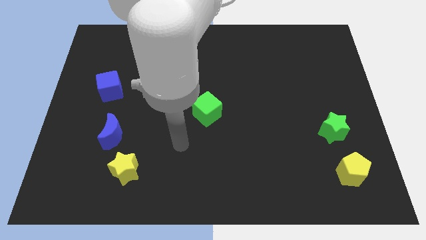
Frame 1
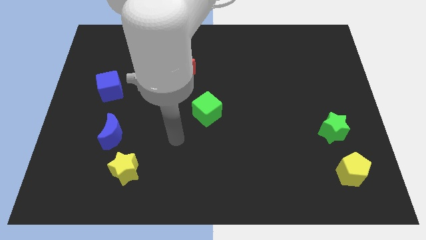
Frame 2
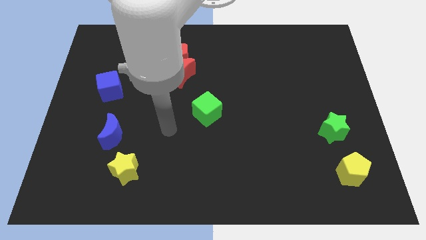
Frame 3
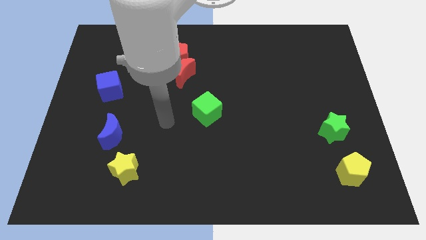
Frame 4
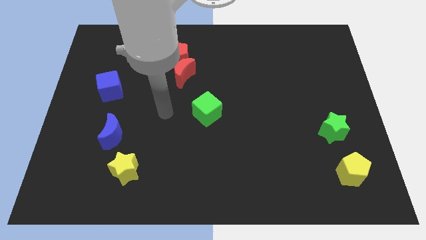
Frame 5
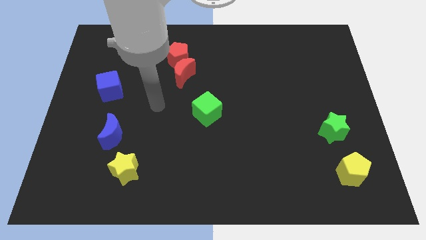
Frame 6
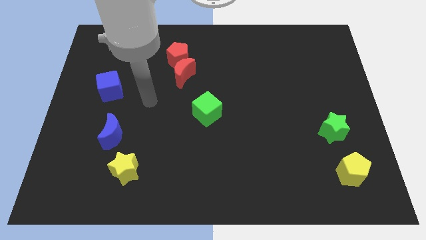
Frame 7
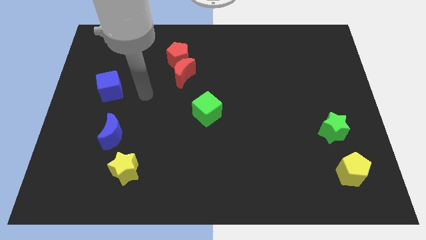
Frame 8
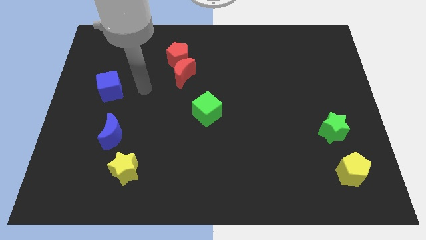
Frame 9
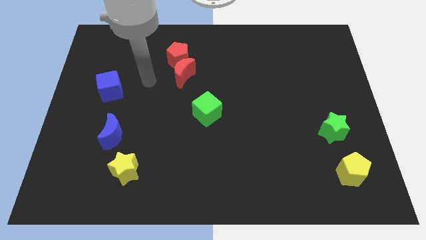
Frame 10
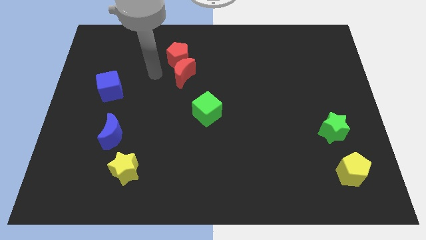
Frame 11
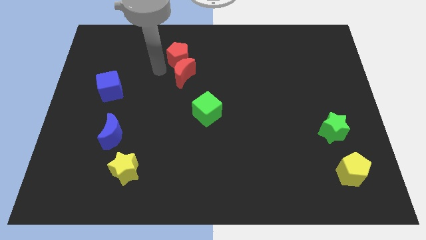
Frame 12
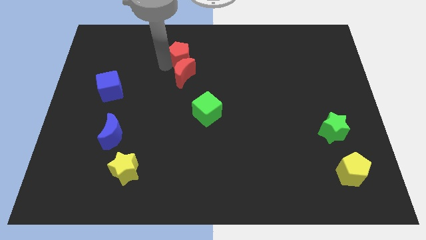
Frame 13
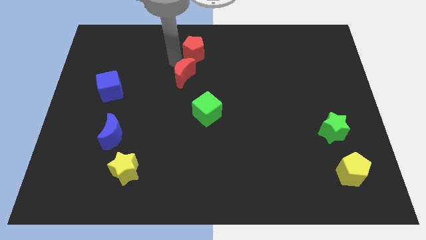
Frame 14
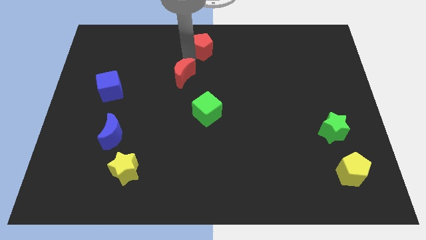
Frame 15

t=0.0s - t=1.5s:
move the red moon away from the red pentagon

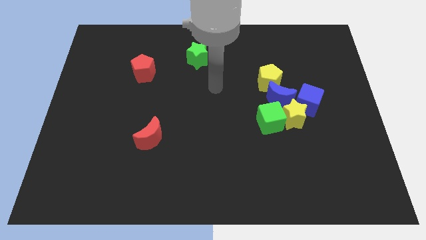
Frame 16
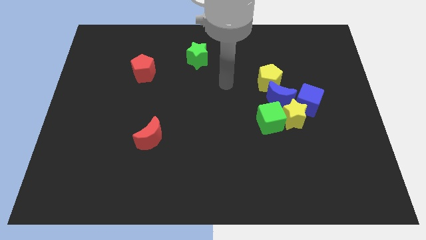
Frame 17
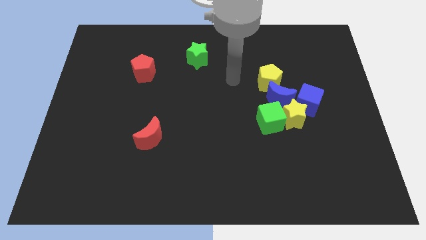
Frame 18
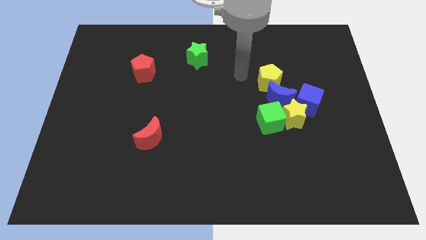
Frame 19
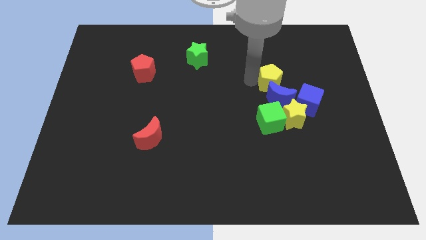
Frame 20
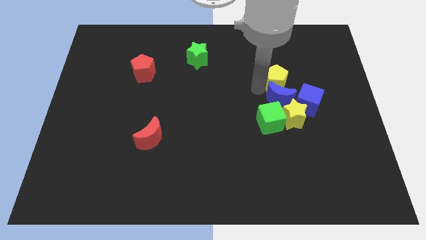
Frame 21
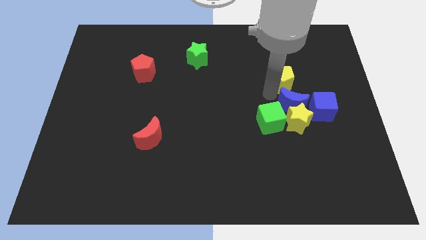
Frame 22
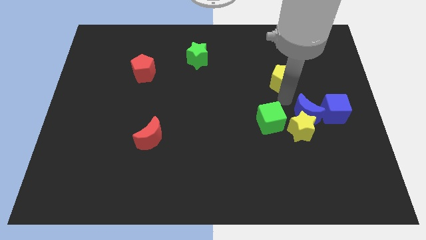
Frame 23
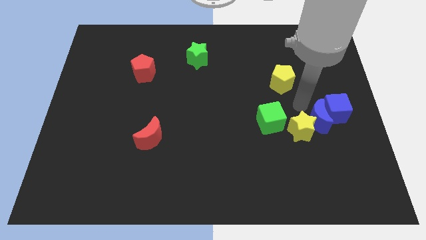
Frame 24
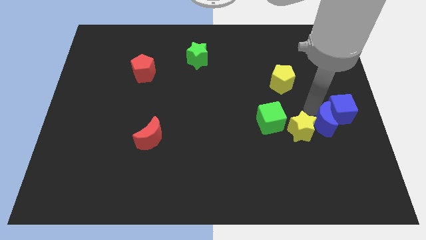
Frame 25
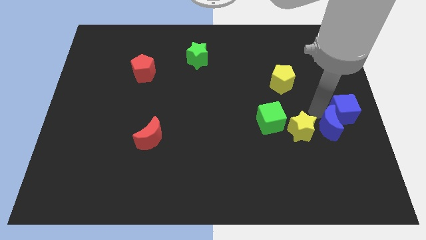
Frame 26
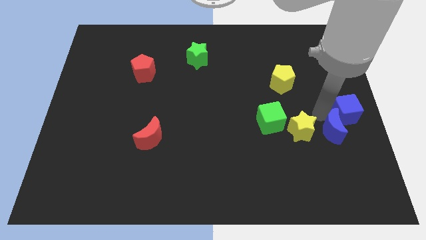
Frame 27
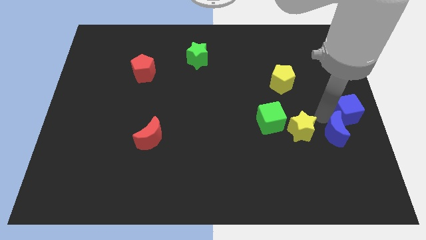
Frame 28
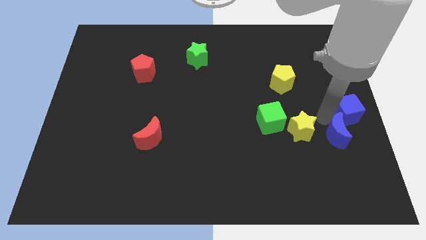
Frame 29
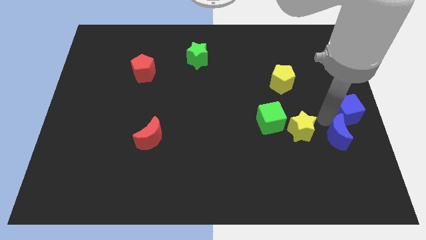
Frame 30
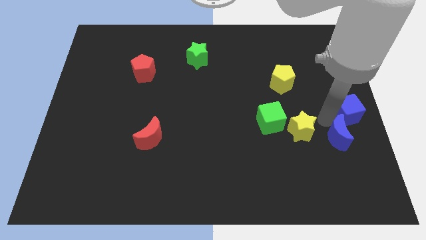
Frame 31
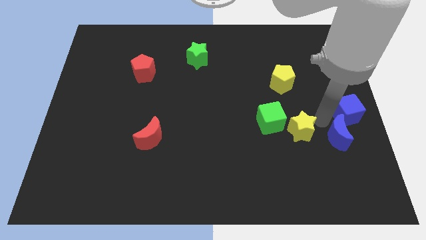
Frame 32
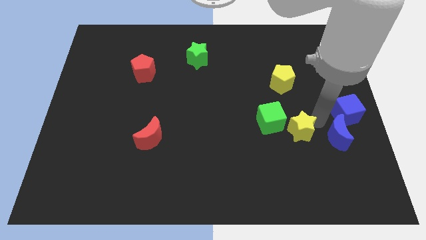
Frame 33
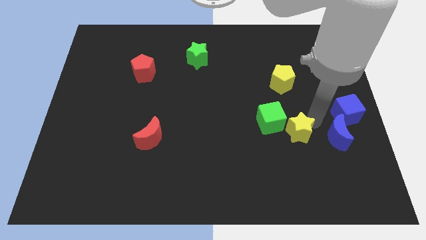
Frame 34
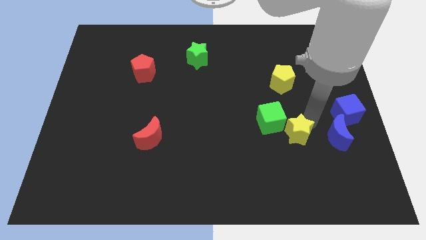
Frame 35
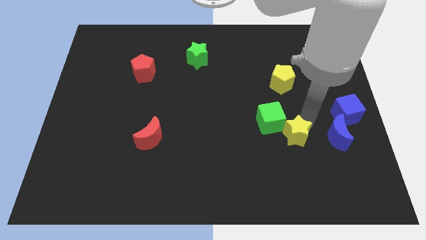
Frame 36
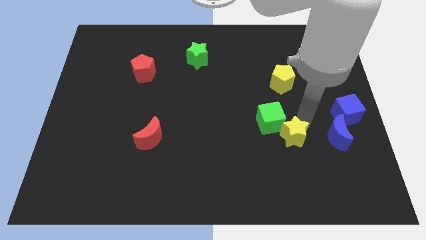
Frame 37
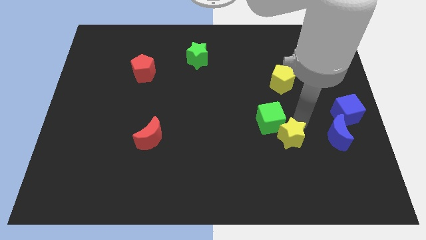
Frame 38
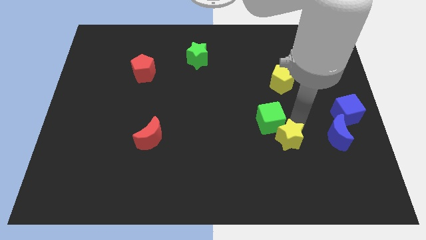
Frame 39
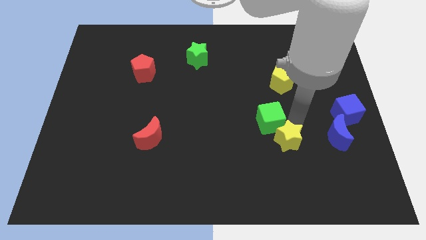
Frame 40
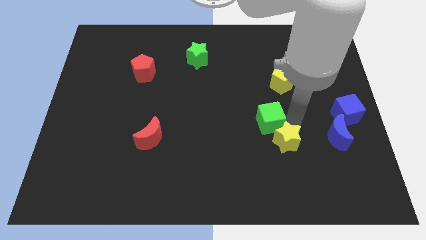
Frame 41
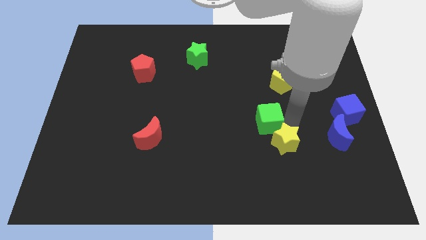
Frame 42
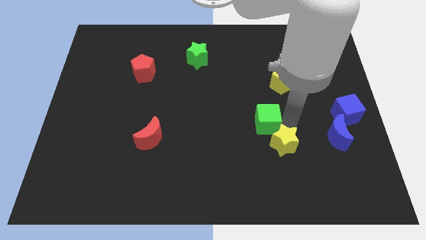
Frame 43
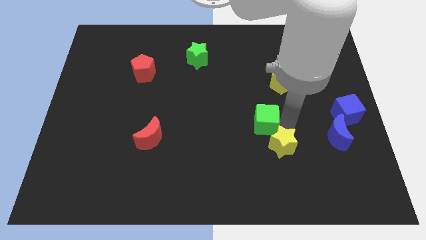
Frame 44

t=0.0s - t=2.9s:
move the yellow star away from the green cube, blue moon, and blue cube

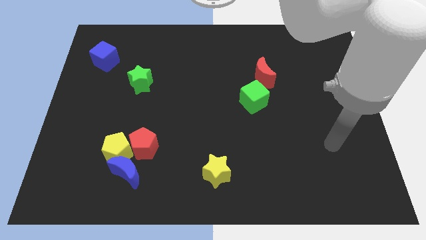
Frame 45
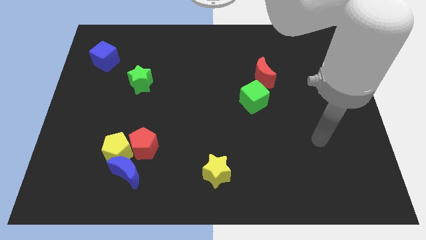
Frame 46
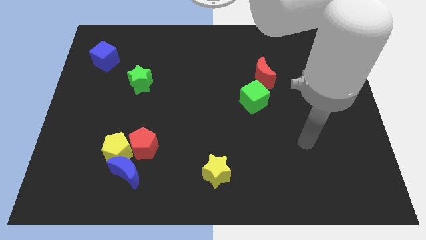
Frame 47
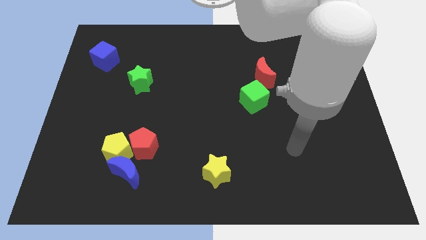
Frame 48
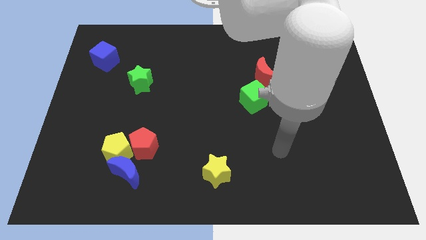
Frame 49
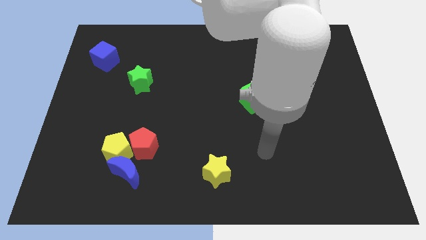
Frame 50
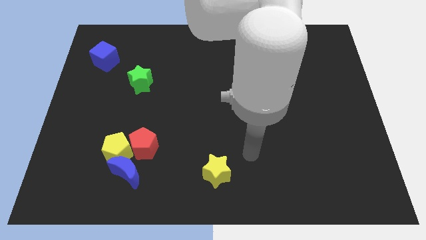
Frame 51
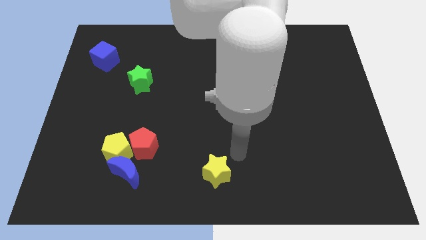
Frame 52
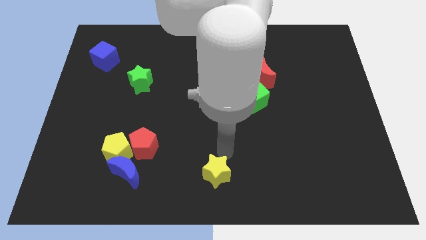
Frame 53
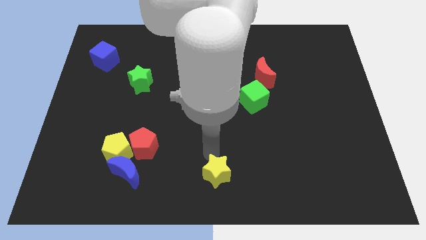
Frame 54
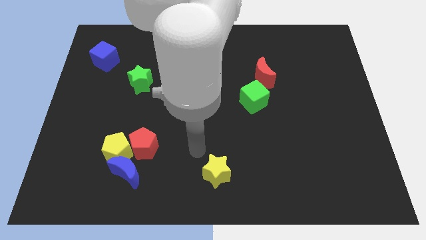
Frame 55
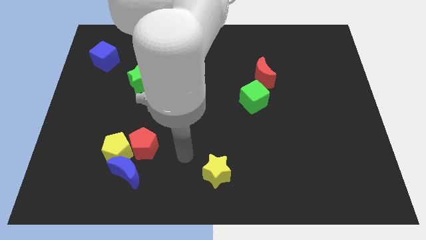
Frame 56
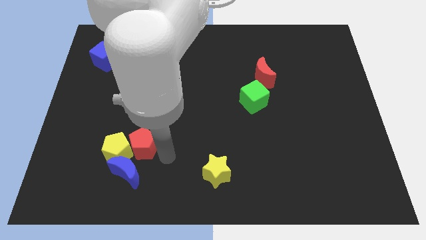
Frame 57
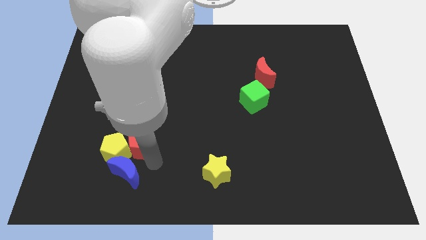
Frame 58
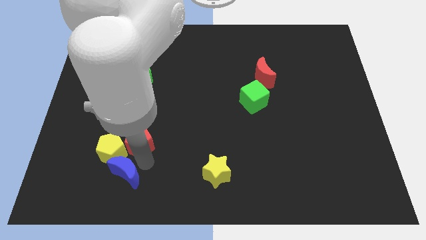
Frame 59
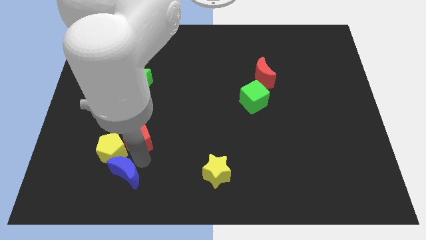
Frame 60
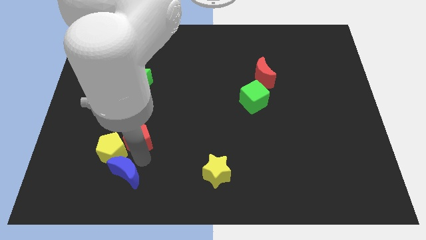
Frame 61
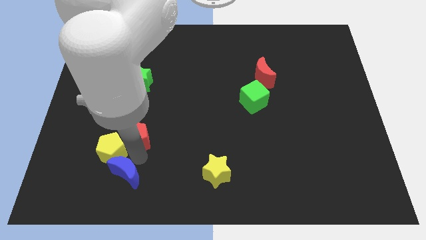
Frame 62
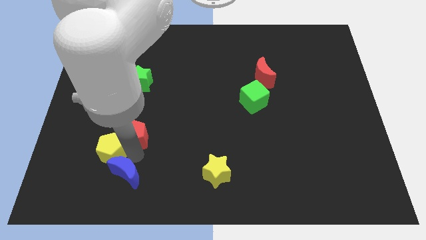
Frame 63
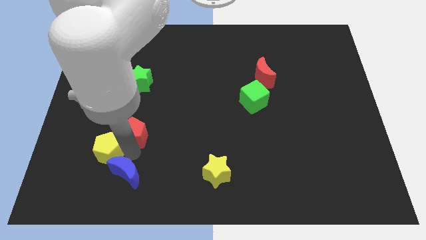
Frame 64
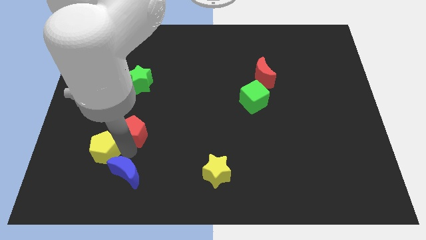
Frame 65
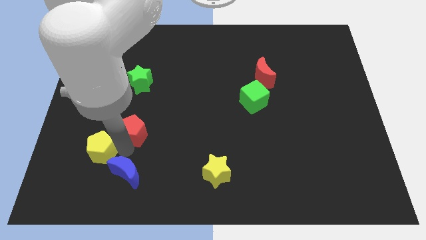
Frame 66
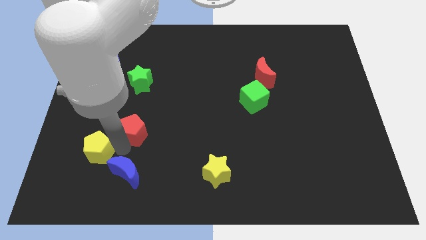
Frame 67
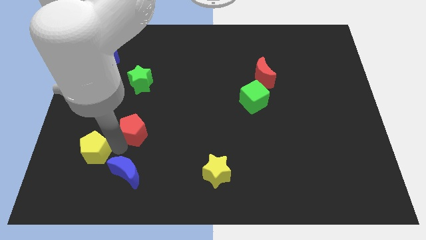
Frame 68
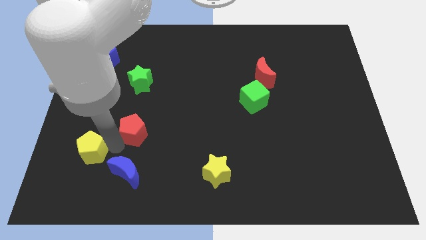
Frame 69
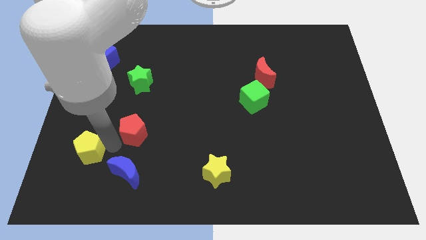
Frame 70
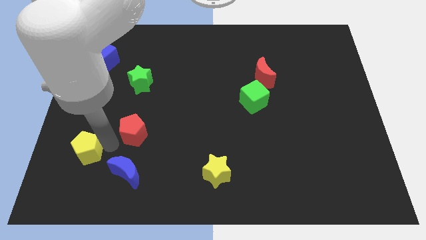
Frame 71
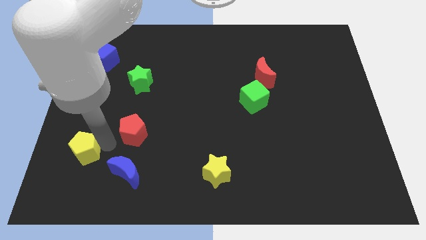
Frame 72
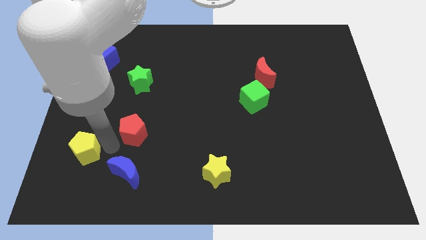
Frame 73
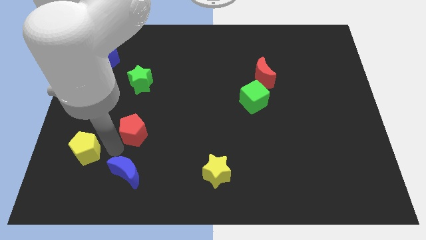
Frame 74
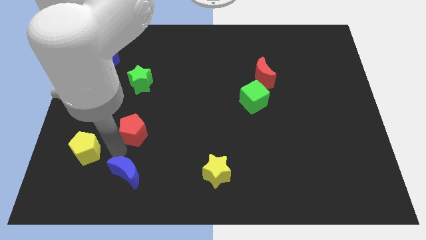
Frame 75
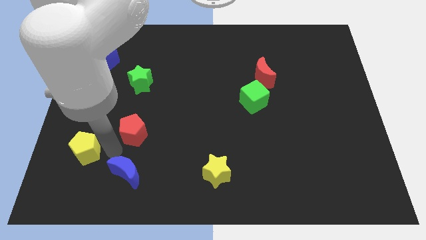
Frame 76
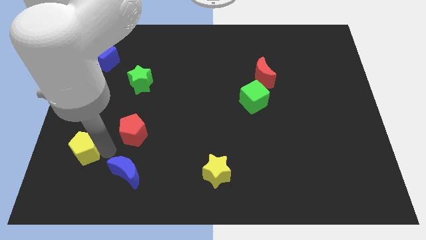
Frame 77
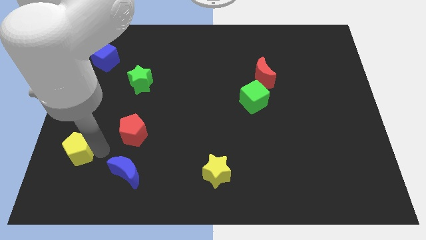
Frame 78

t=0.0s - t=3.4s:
move the yellow pentagon away from the red pentagon and blue moon

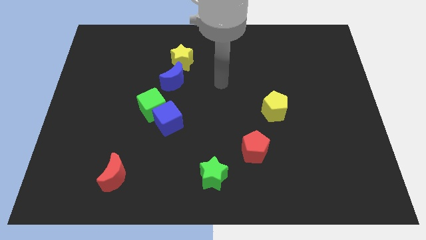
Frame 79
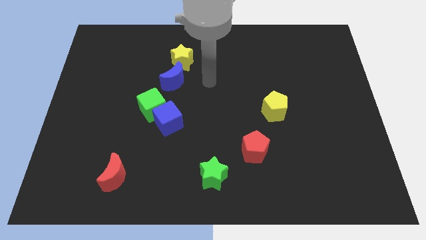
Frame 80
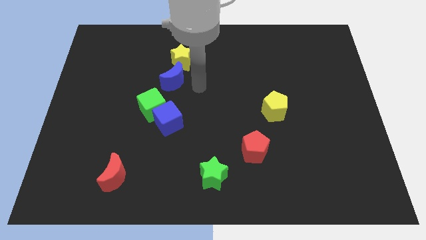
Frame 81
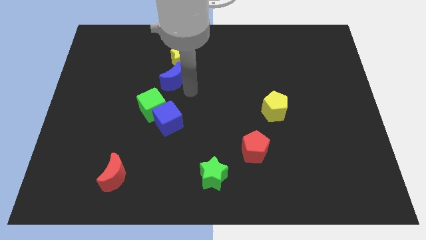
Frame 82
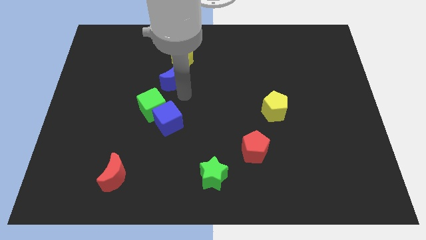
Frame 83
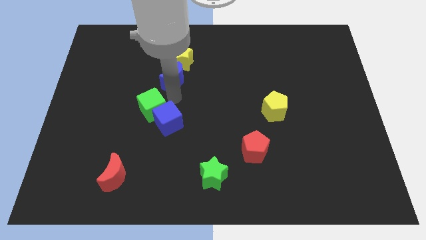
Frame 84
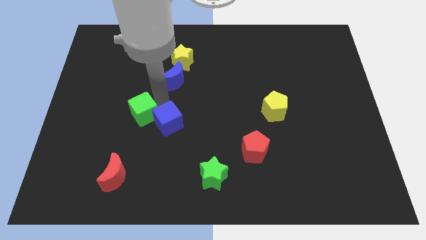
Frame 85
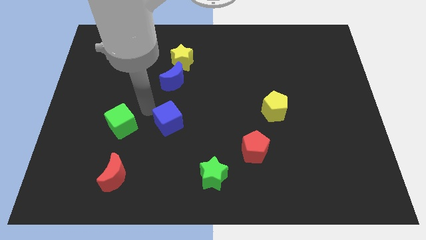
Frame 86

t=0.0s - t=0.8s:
move the blue cube away from the green cube

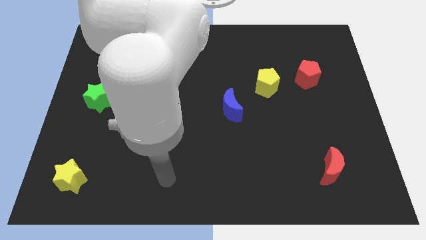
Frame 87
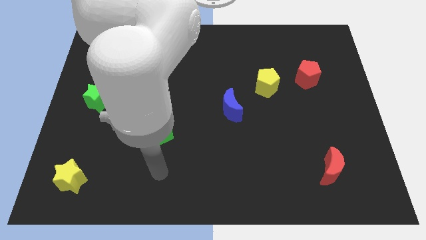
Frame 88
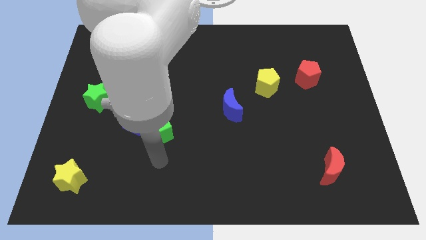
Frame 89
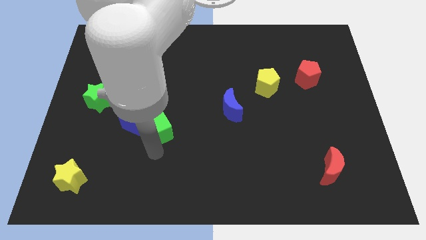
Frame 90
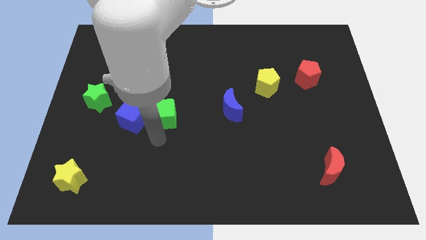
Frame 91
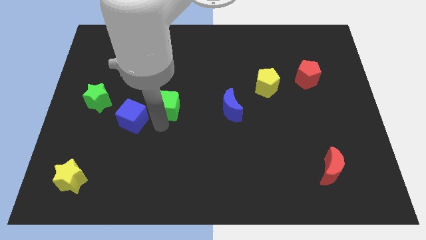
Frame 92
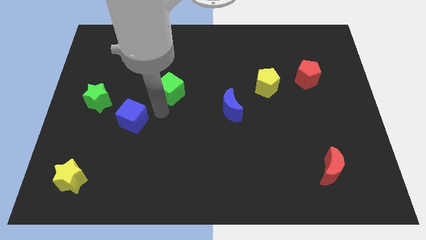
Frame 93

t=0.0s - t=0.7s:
pull the blue cube apart from the green cube
